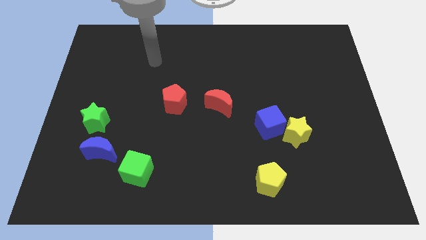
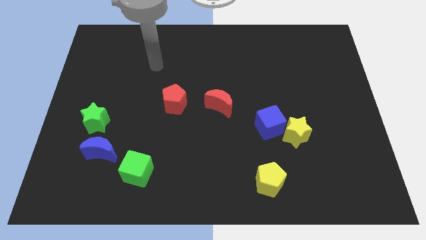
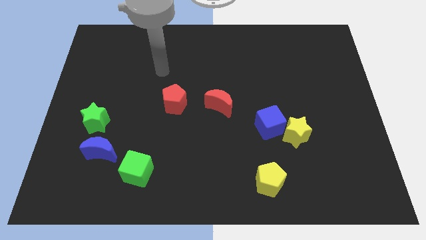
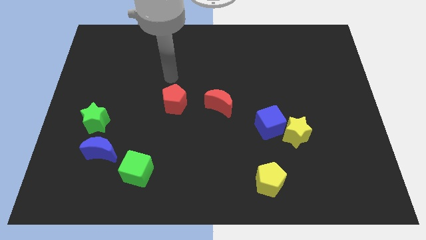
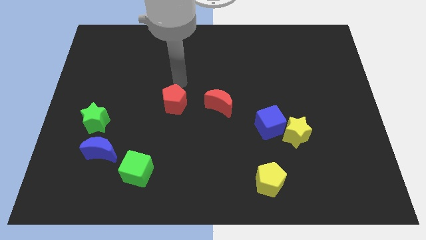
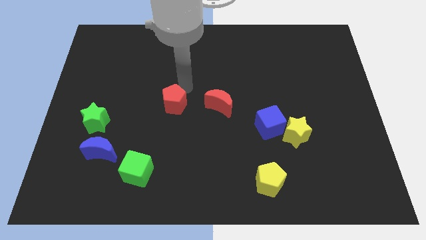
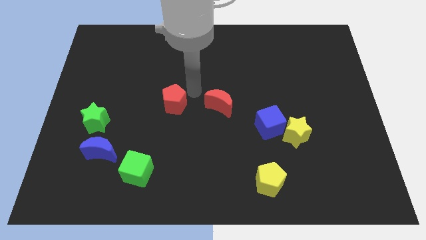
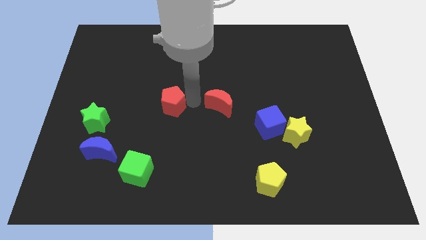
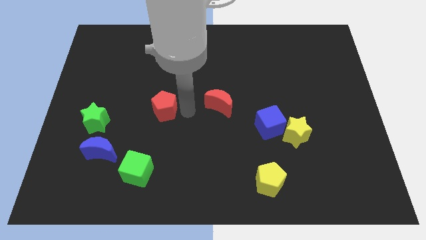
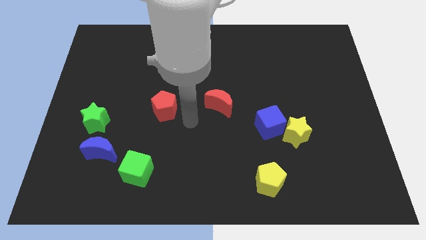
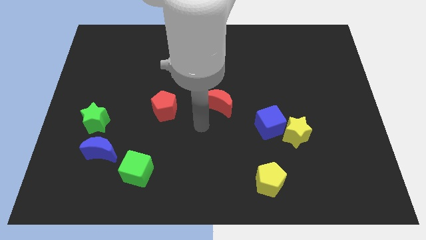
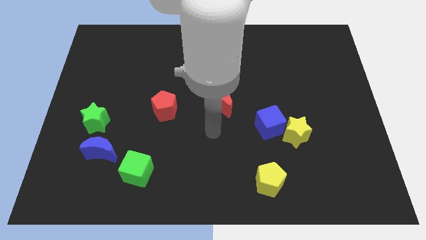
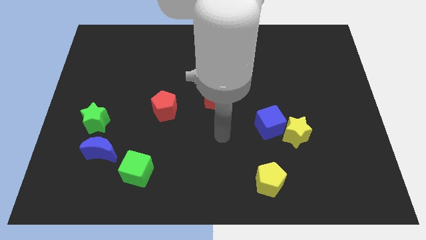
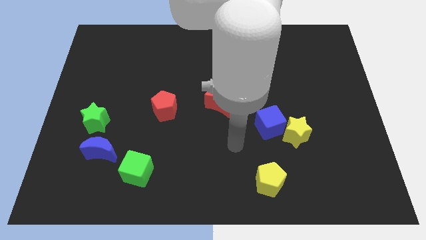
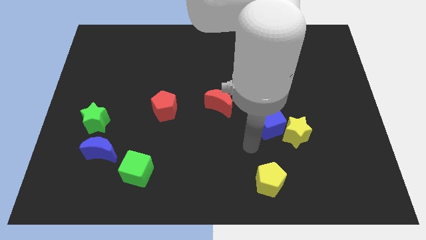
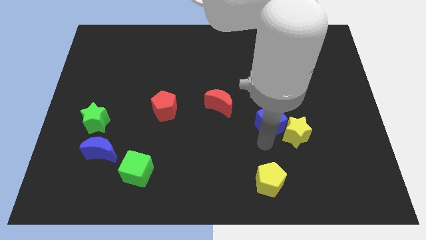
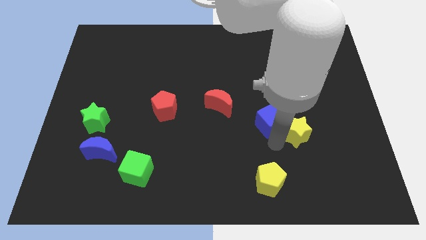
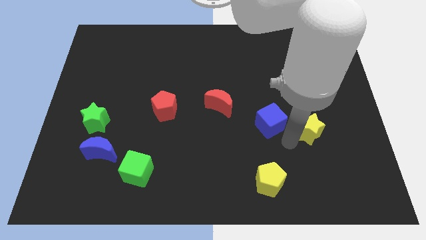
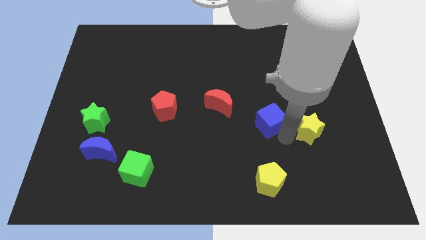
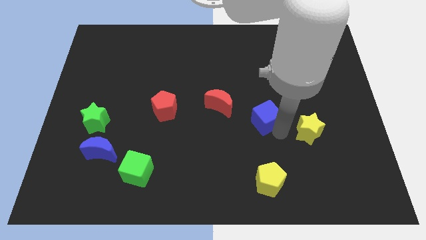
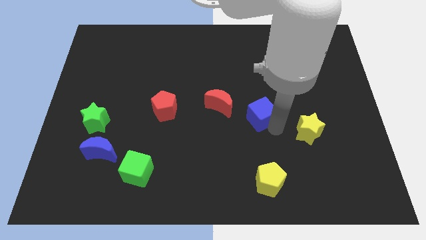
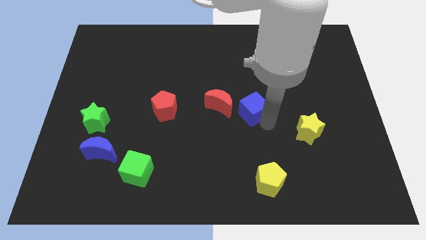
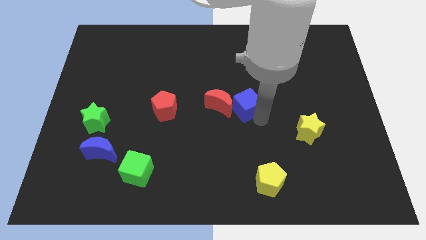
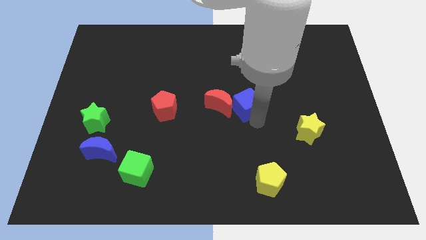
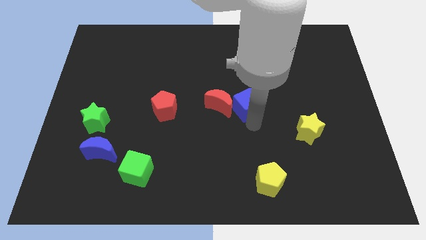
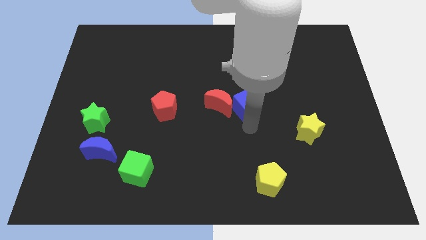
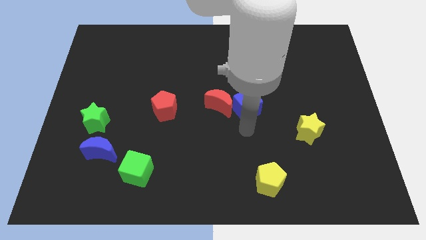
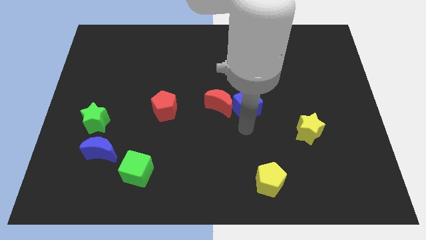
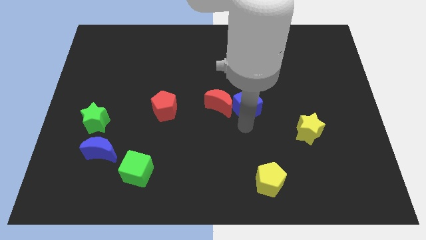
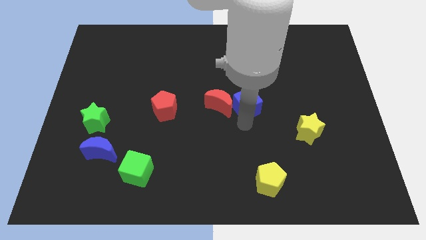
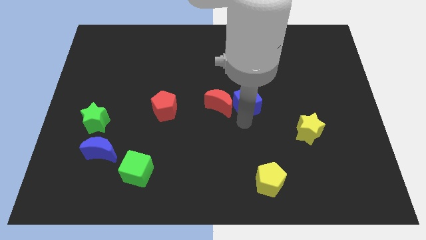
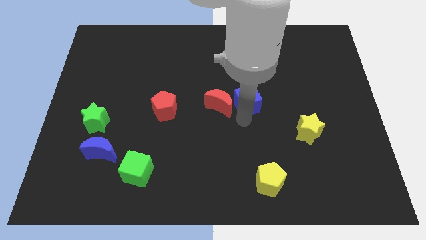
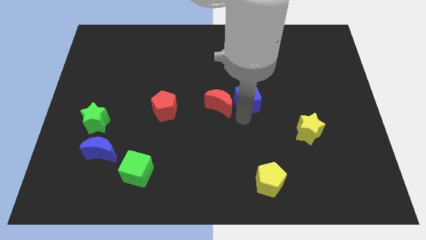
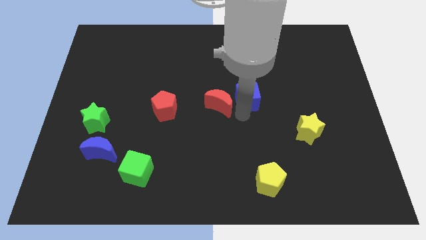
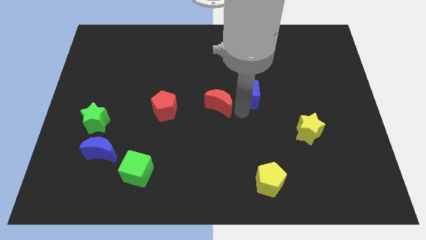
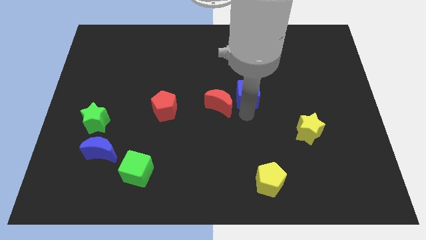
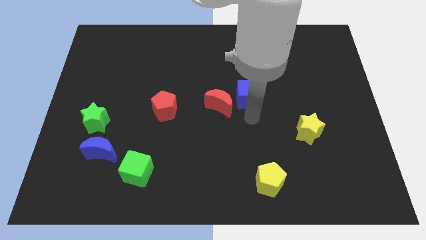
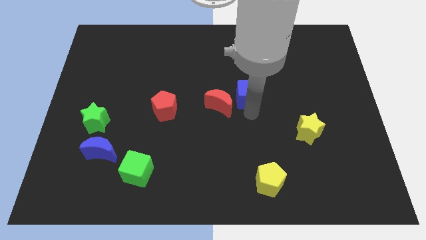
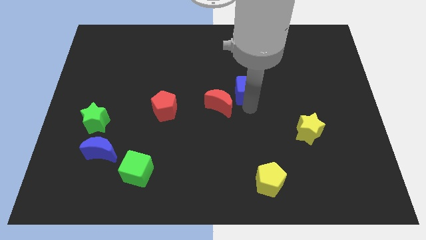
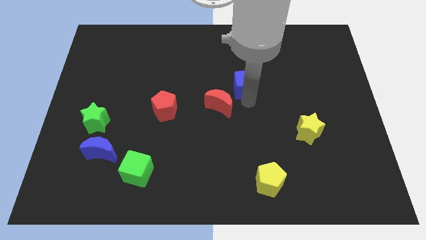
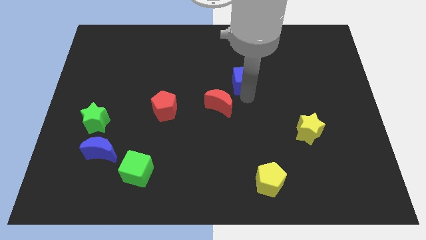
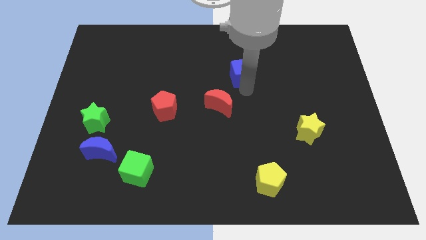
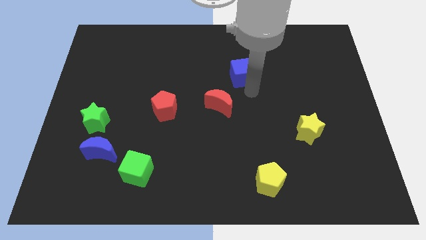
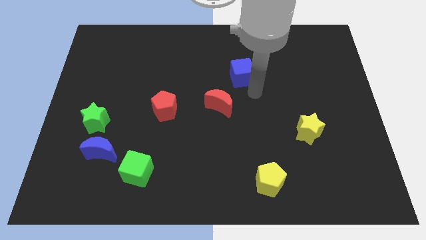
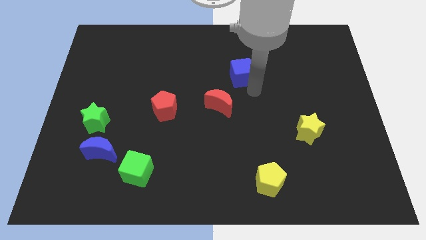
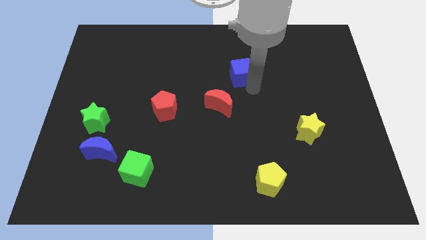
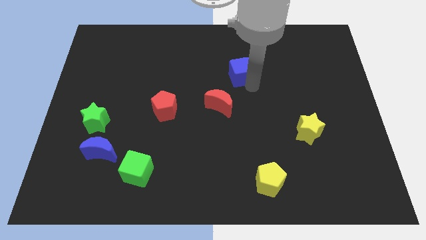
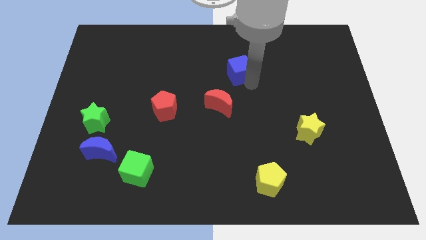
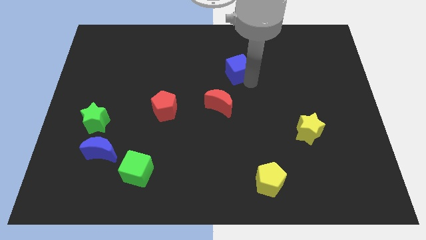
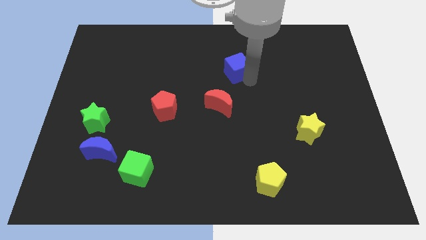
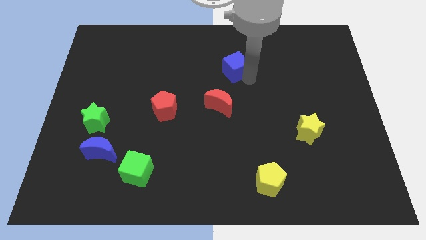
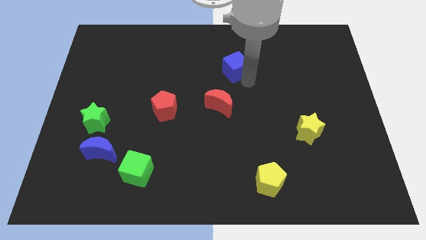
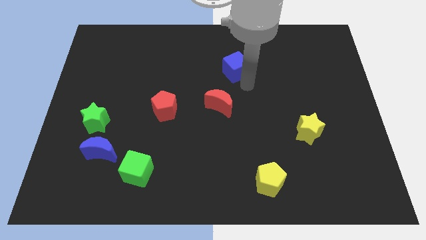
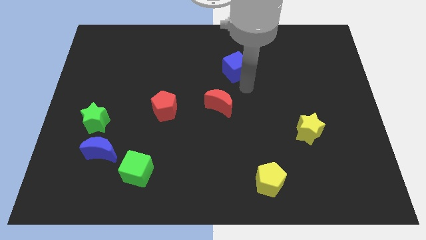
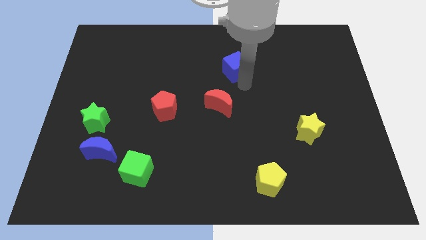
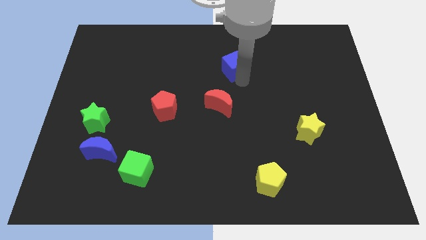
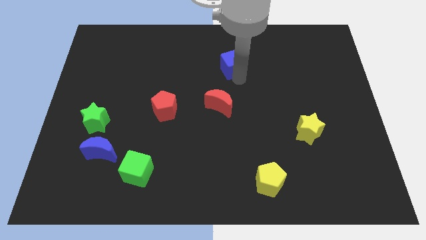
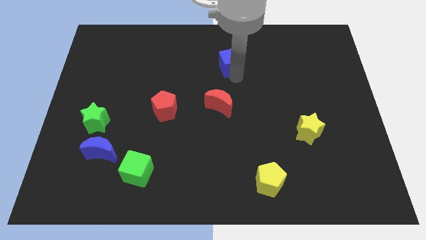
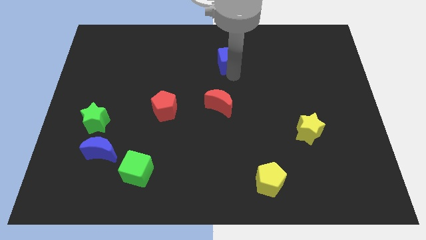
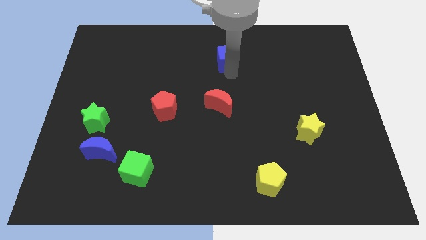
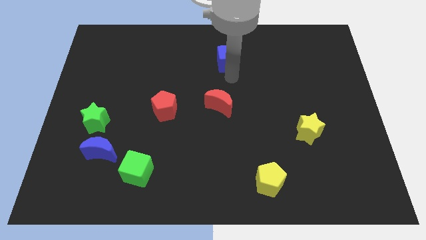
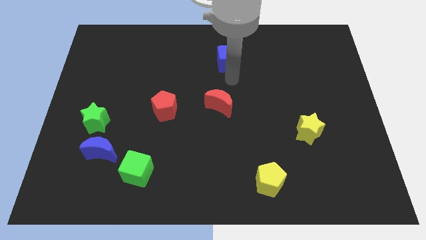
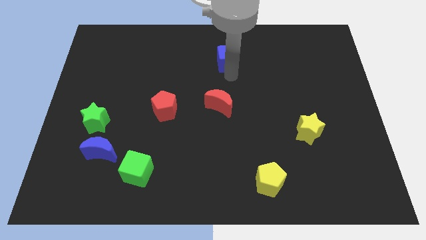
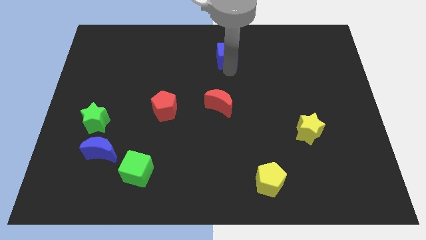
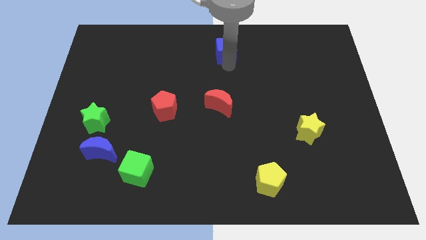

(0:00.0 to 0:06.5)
put the blue cube to the towards your base

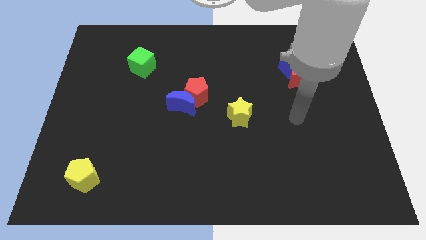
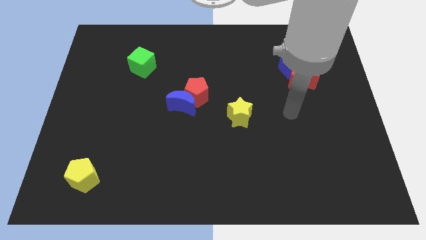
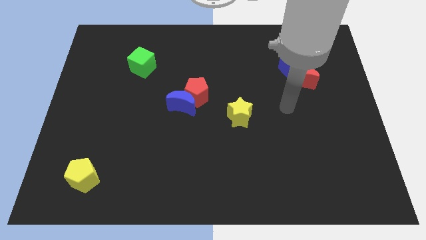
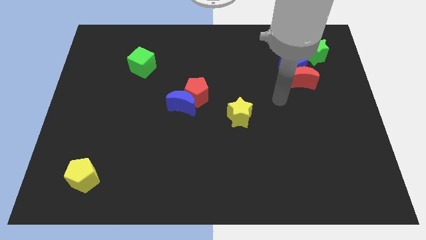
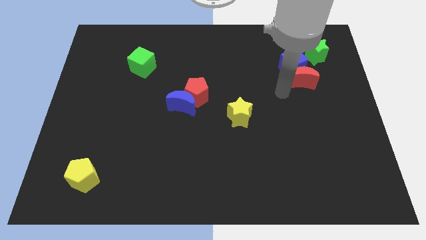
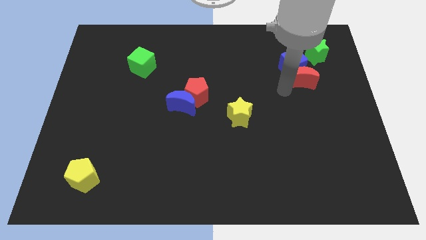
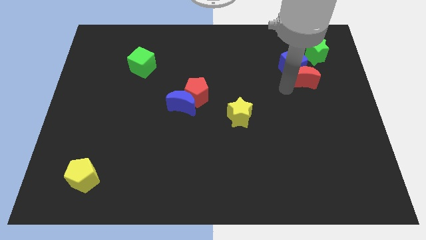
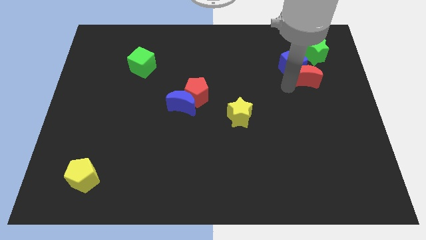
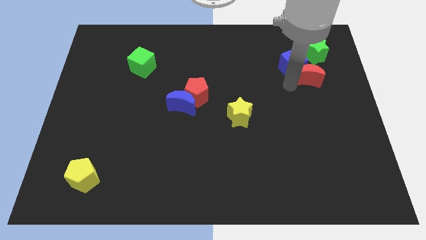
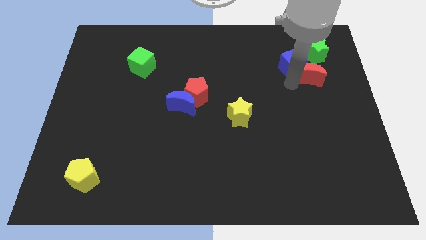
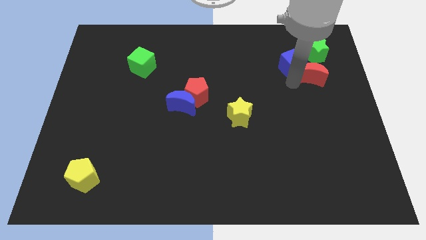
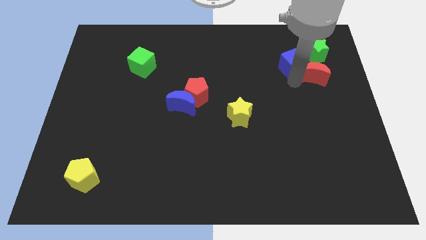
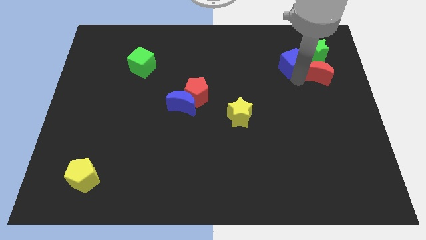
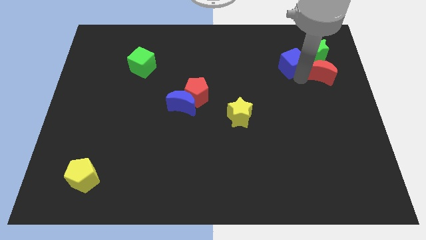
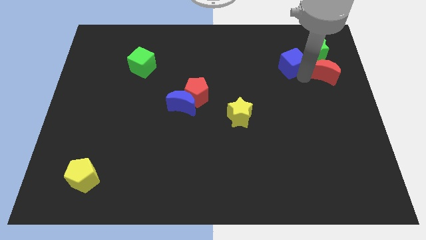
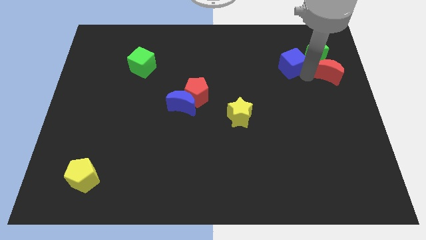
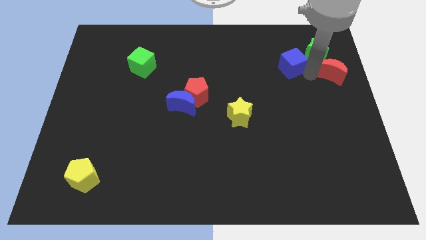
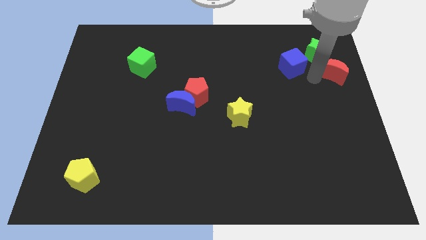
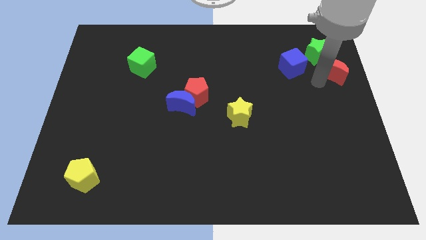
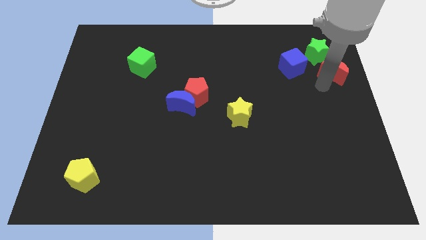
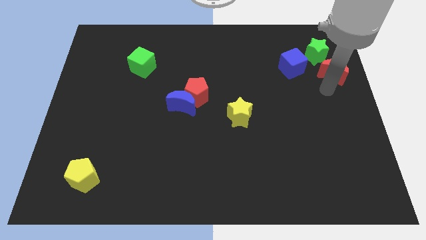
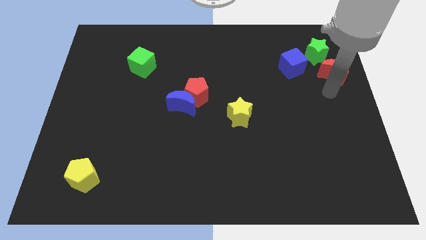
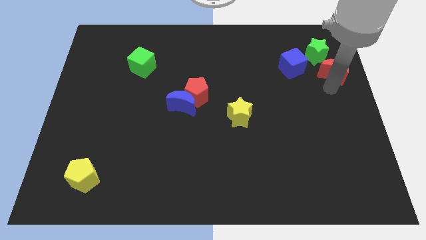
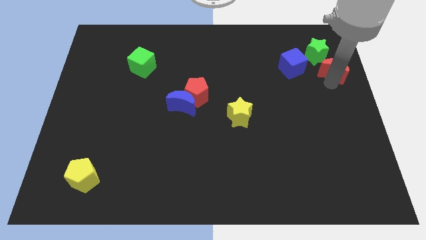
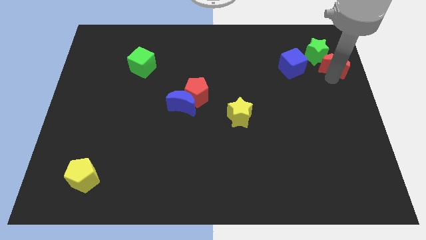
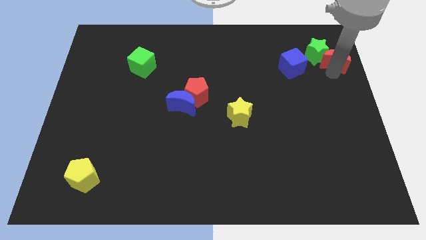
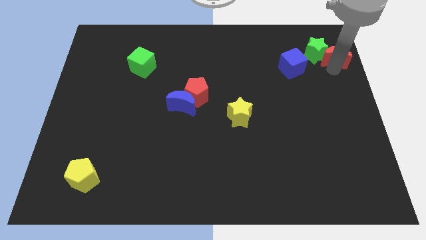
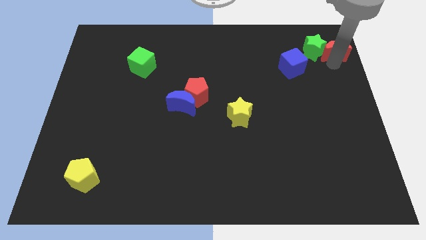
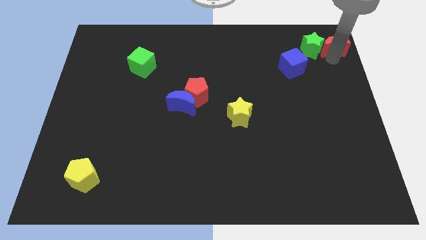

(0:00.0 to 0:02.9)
push the red moon to the top right of the board
